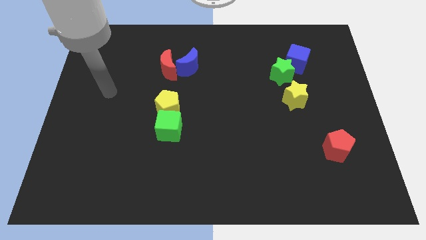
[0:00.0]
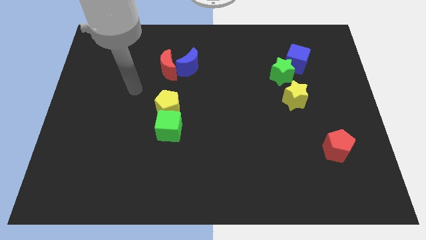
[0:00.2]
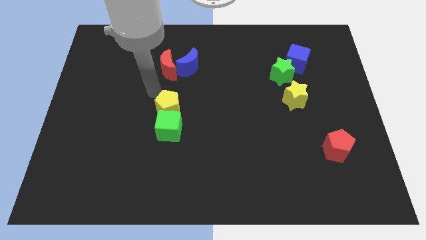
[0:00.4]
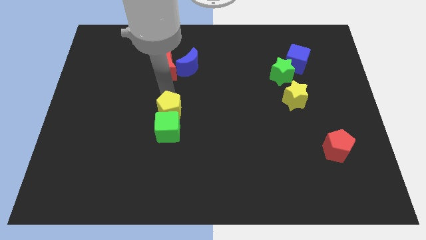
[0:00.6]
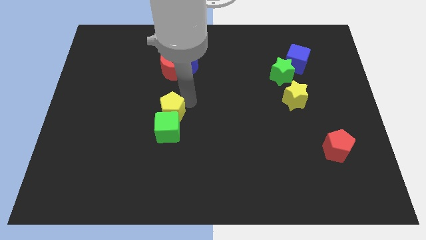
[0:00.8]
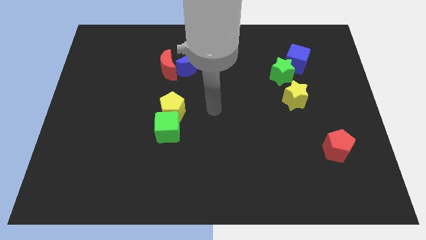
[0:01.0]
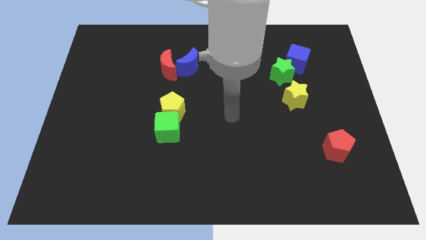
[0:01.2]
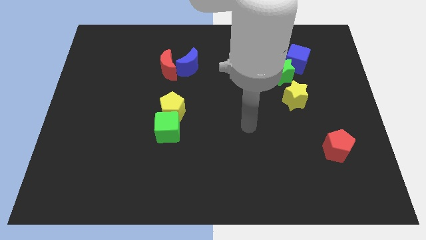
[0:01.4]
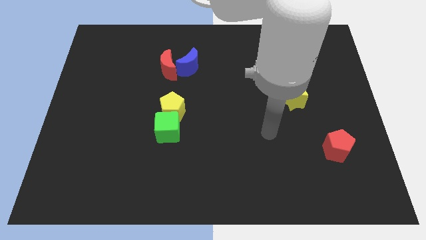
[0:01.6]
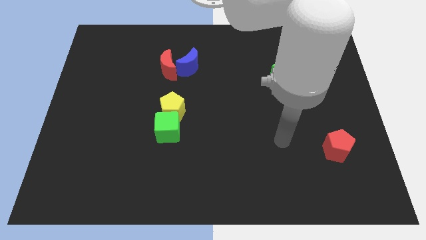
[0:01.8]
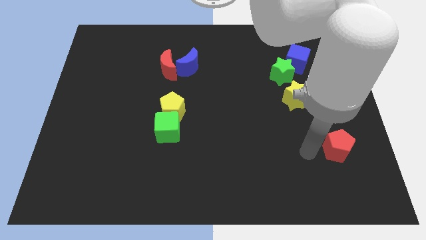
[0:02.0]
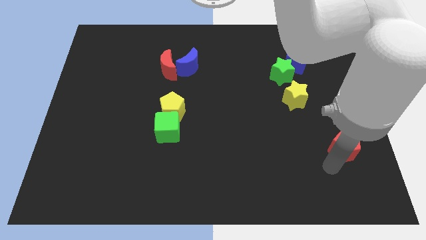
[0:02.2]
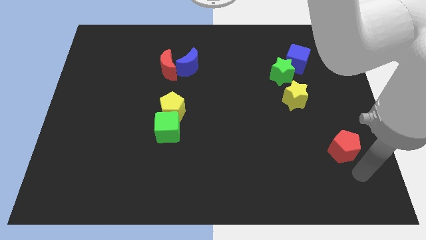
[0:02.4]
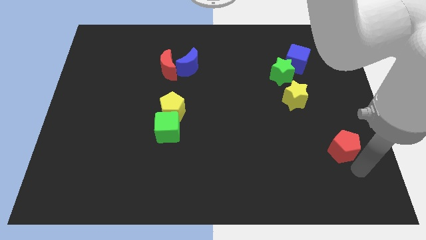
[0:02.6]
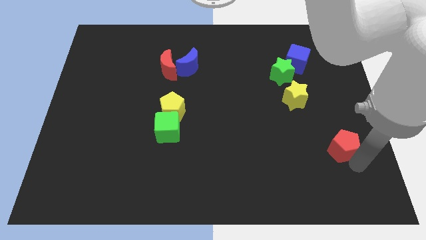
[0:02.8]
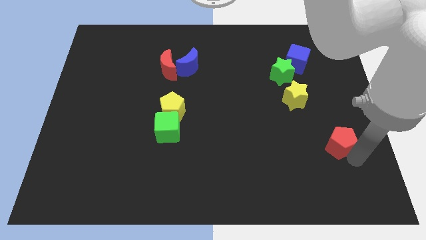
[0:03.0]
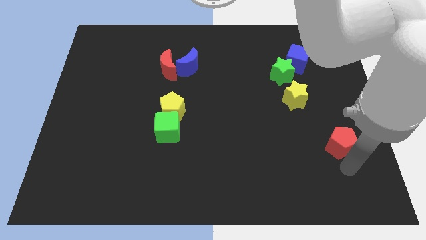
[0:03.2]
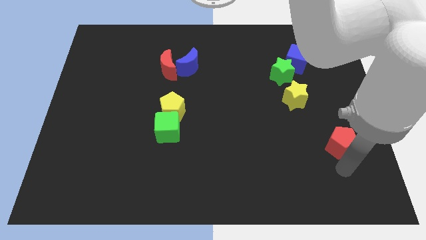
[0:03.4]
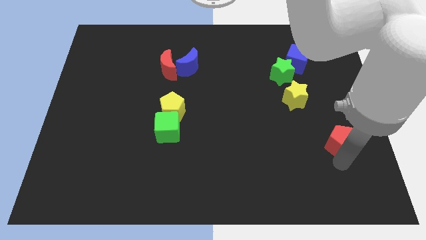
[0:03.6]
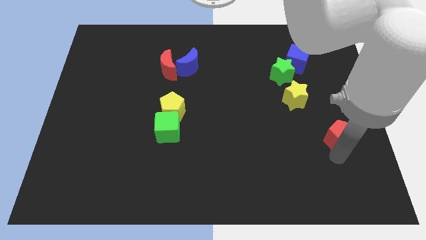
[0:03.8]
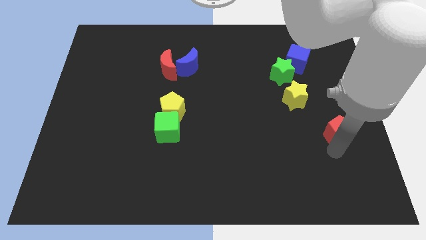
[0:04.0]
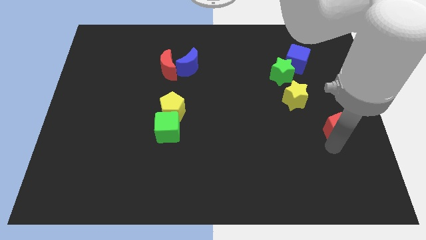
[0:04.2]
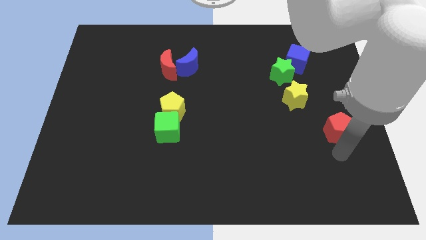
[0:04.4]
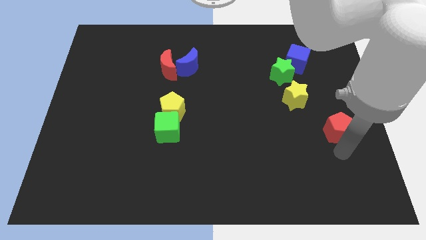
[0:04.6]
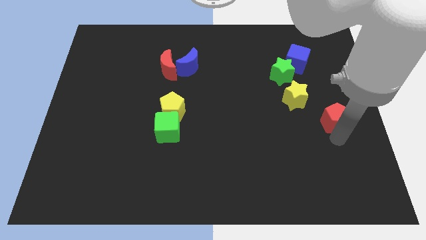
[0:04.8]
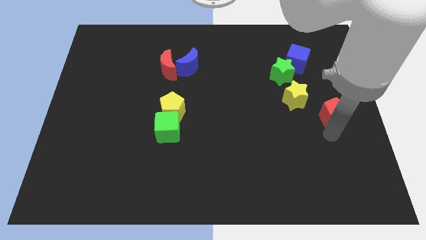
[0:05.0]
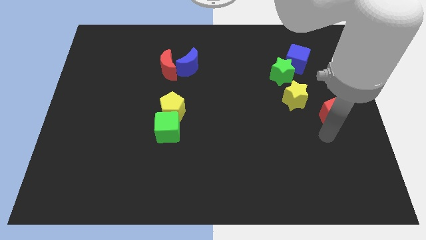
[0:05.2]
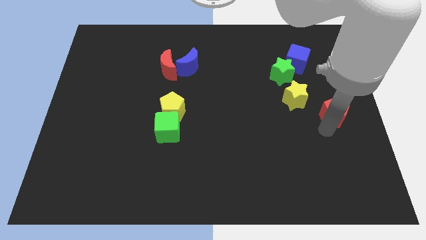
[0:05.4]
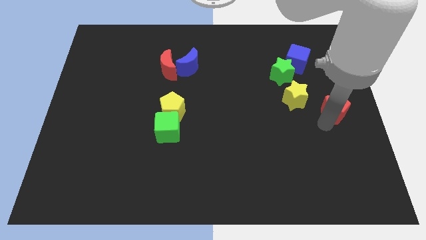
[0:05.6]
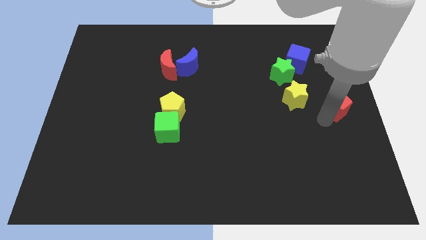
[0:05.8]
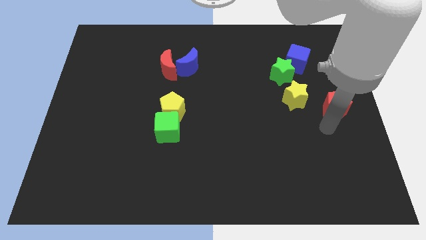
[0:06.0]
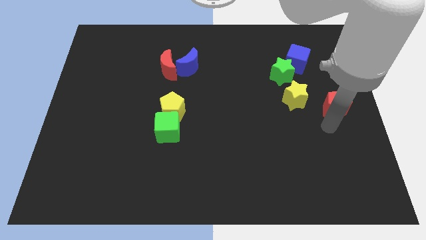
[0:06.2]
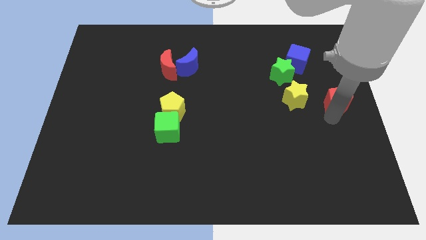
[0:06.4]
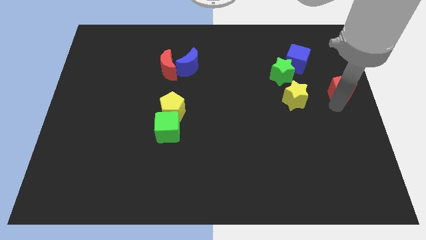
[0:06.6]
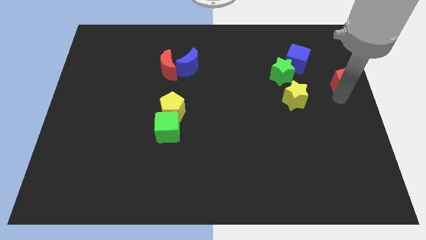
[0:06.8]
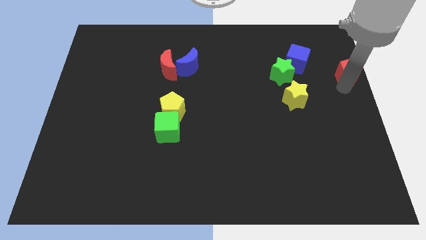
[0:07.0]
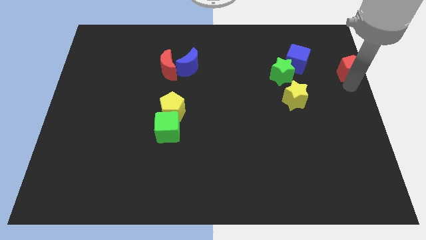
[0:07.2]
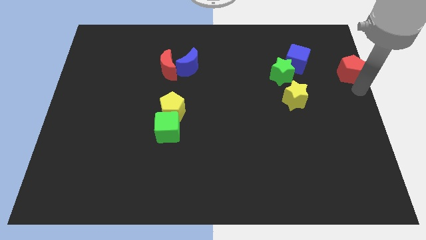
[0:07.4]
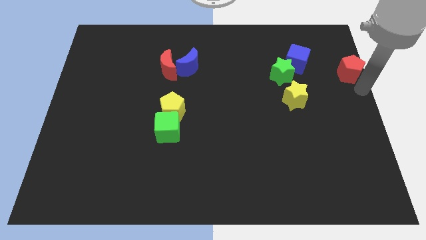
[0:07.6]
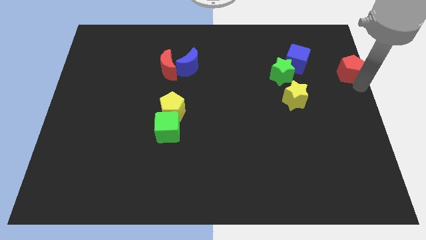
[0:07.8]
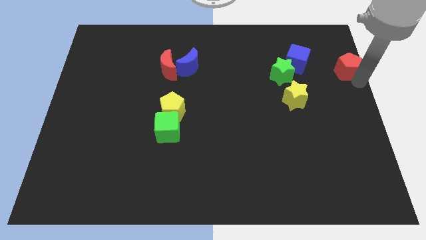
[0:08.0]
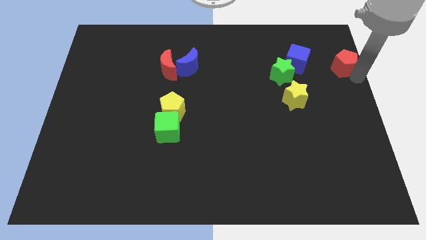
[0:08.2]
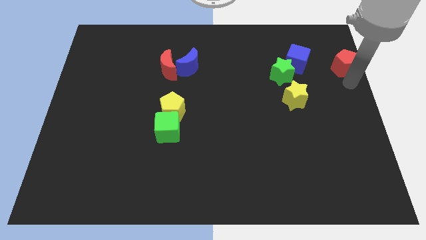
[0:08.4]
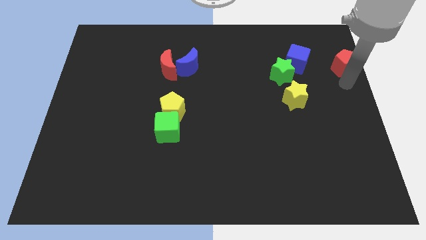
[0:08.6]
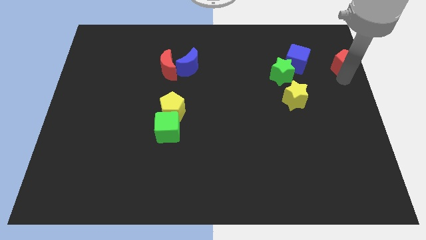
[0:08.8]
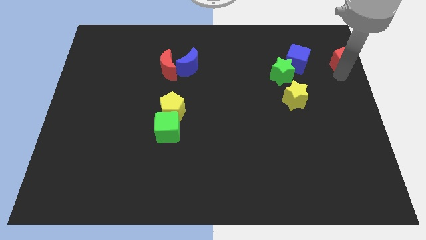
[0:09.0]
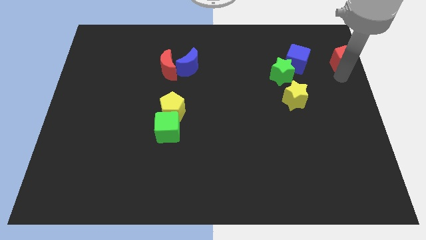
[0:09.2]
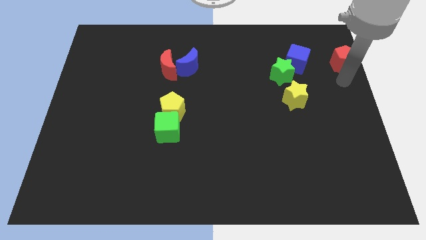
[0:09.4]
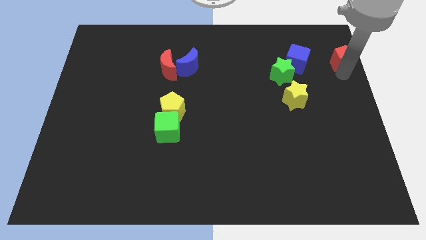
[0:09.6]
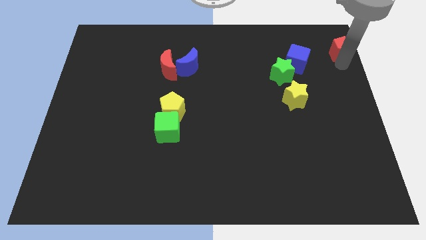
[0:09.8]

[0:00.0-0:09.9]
push the red pentagon to the upper right corner

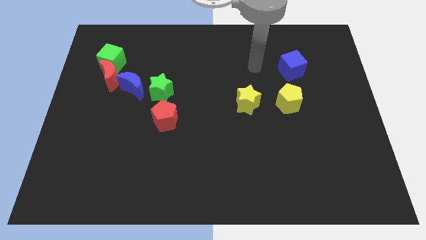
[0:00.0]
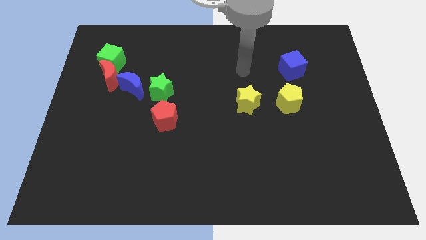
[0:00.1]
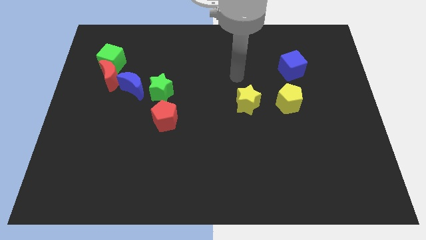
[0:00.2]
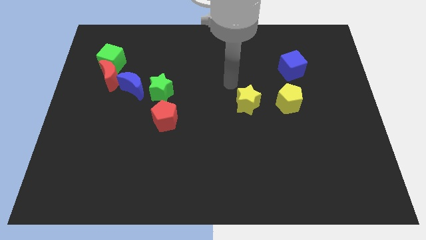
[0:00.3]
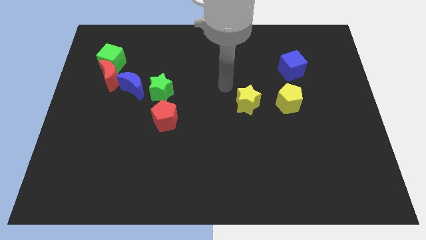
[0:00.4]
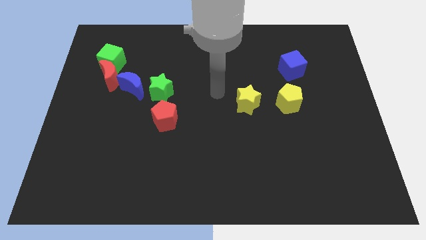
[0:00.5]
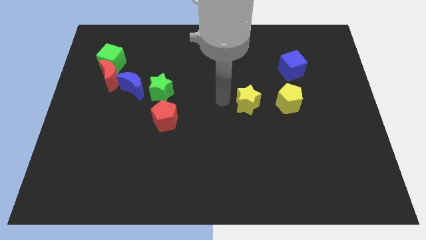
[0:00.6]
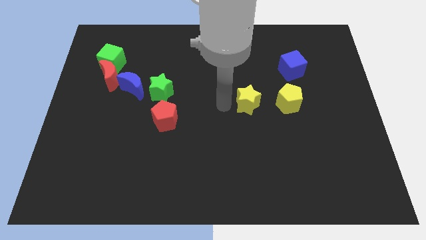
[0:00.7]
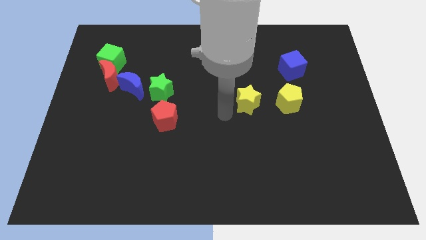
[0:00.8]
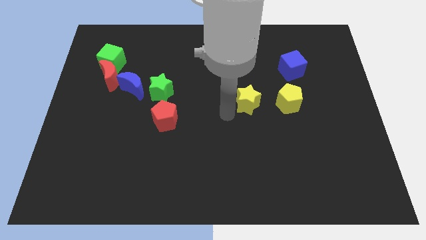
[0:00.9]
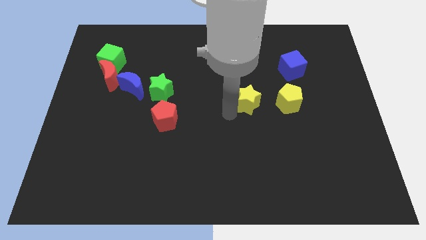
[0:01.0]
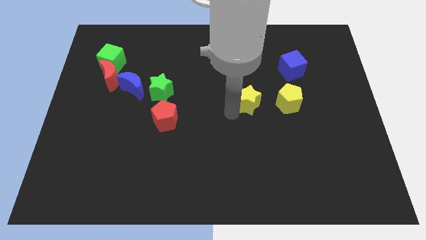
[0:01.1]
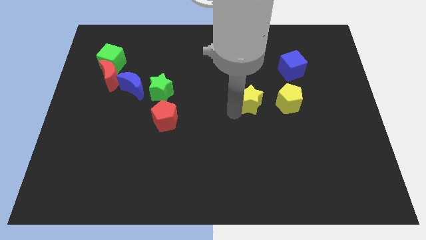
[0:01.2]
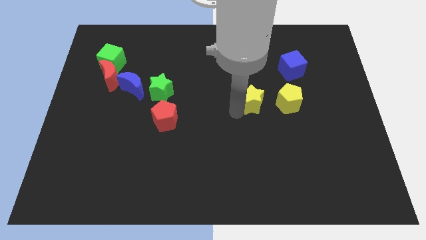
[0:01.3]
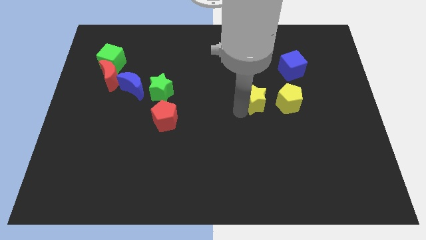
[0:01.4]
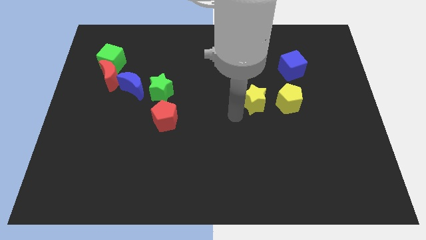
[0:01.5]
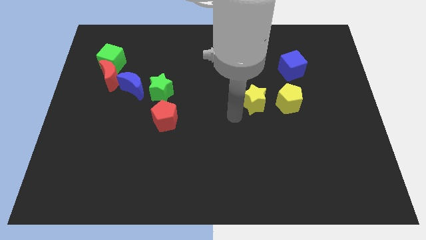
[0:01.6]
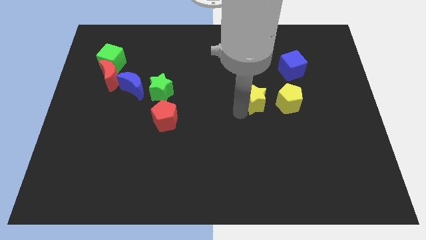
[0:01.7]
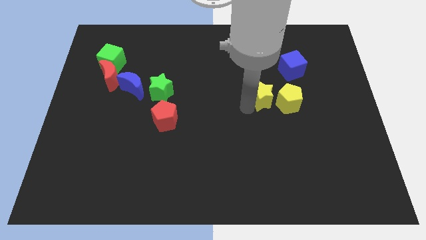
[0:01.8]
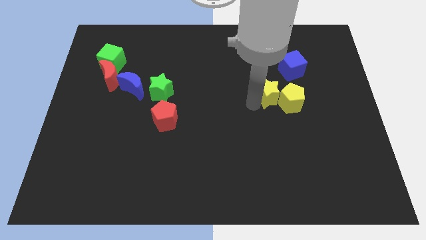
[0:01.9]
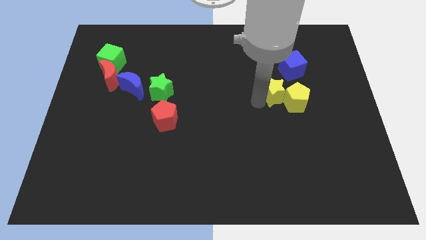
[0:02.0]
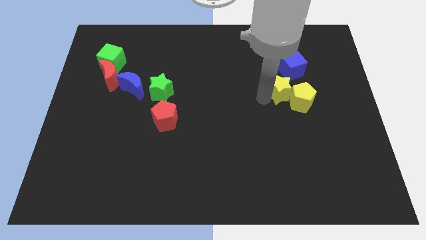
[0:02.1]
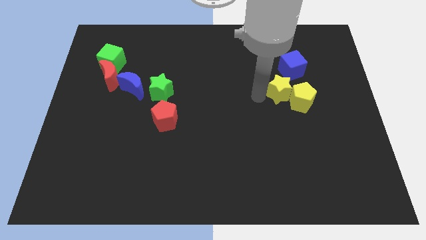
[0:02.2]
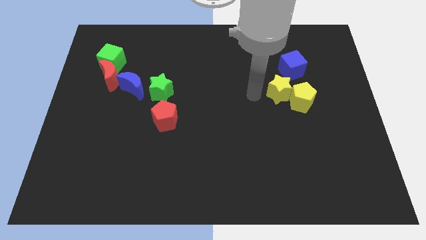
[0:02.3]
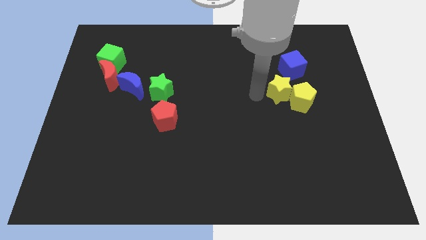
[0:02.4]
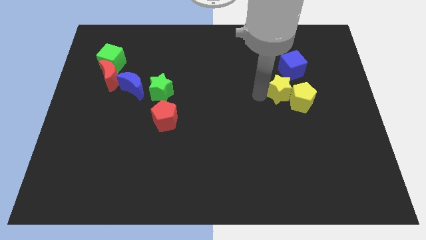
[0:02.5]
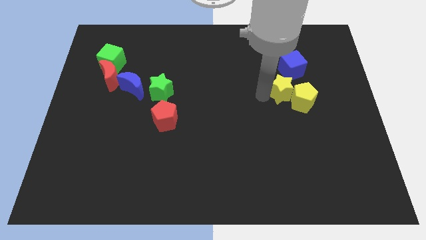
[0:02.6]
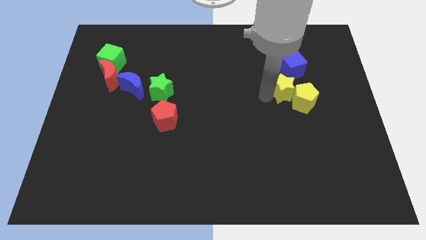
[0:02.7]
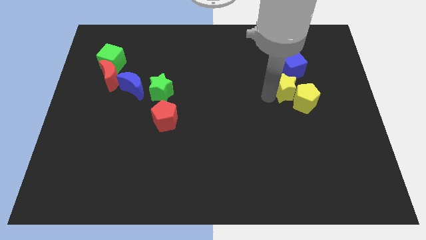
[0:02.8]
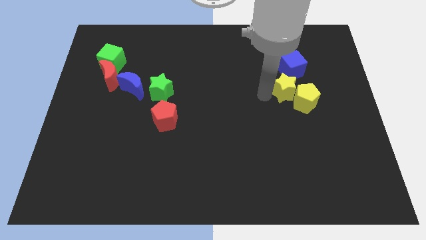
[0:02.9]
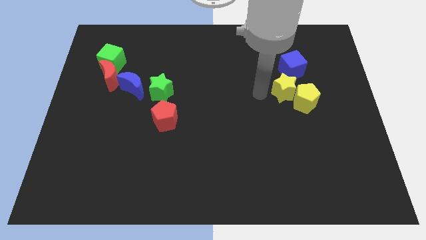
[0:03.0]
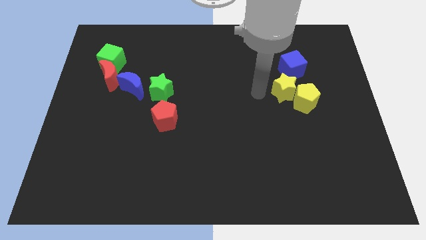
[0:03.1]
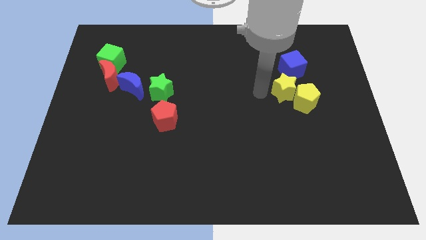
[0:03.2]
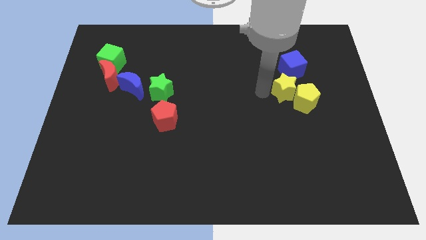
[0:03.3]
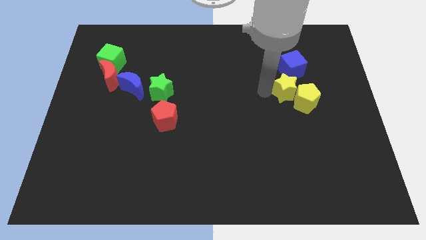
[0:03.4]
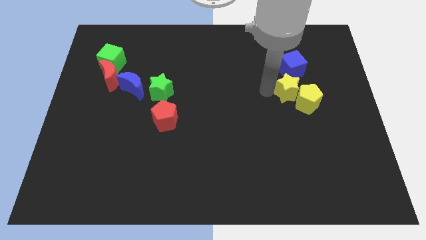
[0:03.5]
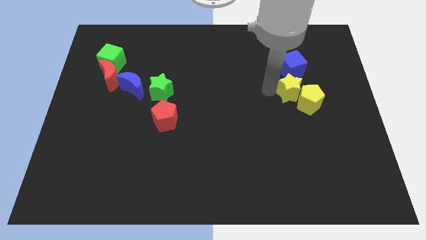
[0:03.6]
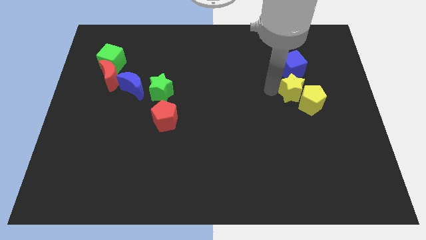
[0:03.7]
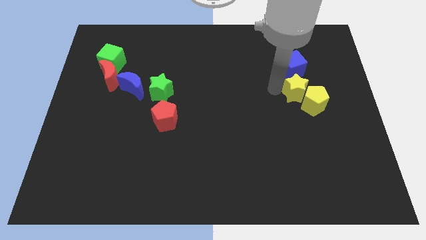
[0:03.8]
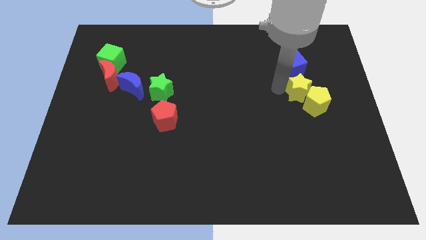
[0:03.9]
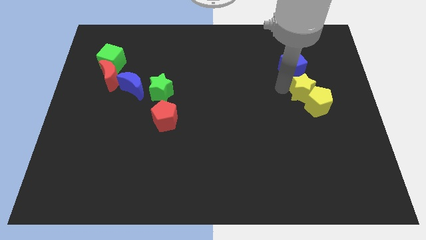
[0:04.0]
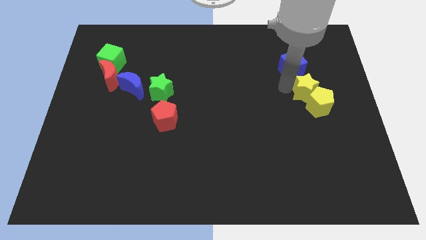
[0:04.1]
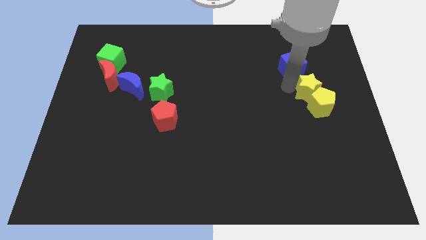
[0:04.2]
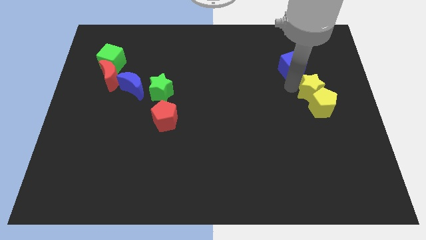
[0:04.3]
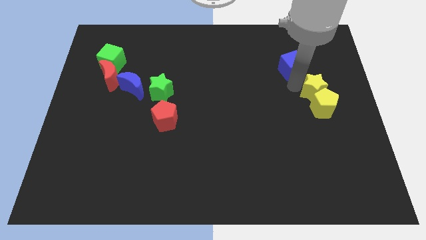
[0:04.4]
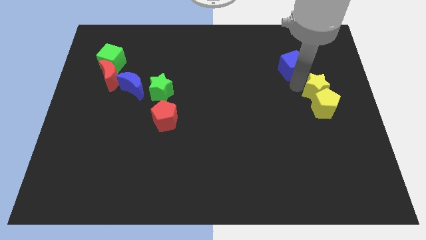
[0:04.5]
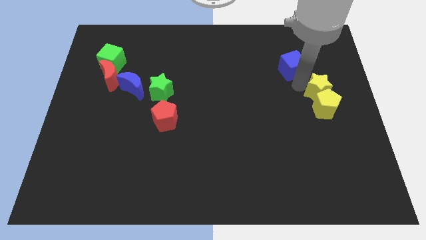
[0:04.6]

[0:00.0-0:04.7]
put the yellow star to the right side of the board
